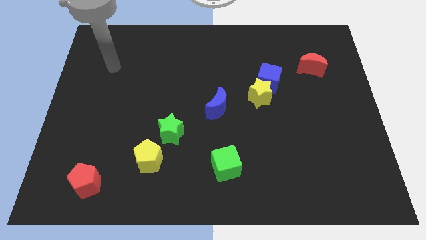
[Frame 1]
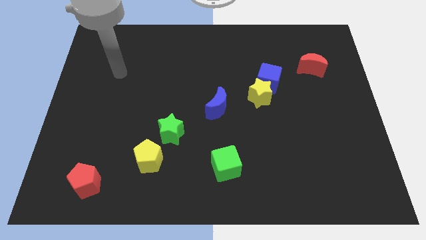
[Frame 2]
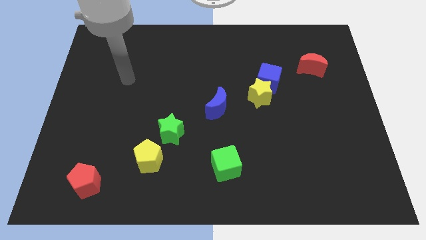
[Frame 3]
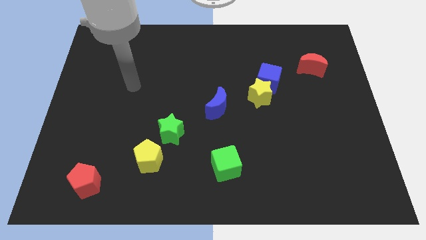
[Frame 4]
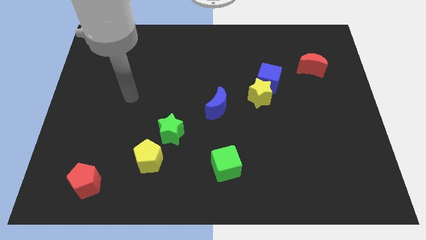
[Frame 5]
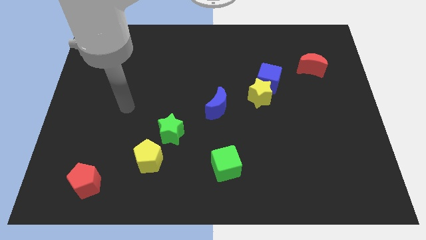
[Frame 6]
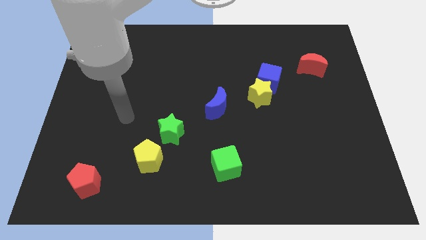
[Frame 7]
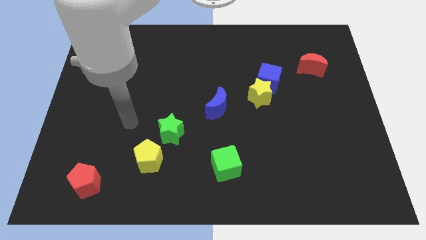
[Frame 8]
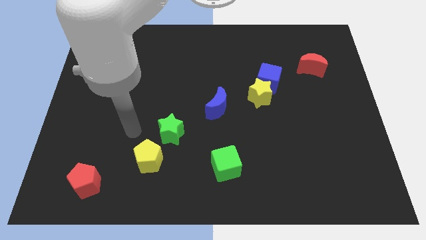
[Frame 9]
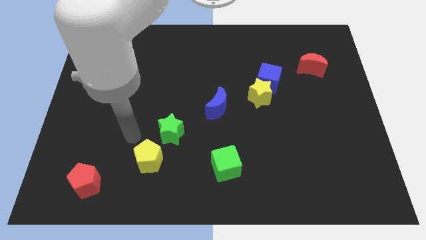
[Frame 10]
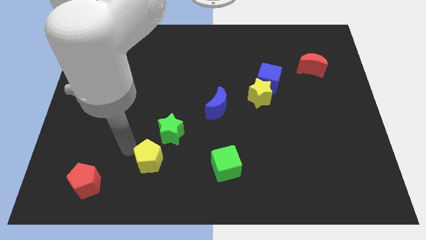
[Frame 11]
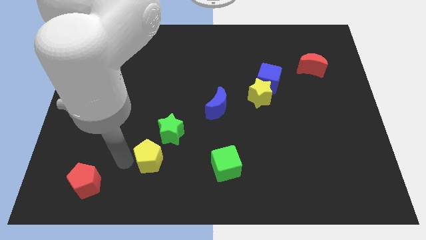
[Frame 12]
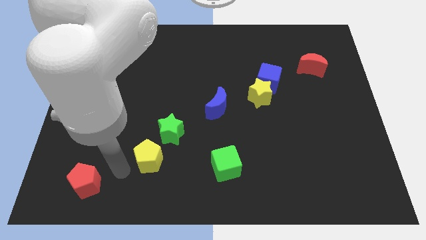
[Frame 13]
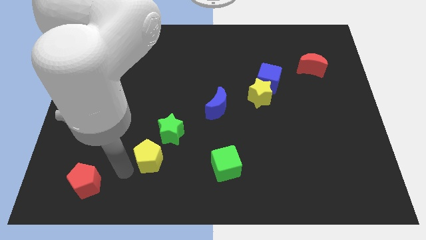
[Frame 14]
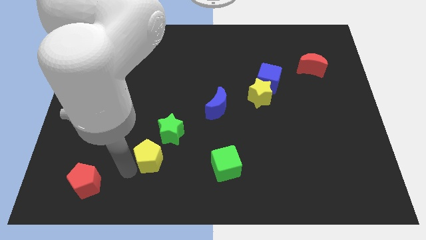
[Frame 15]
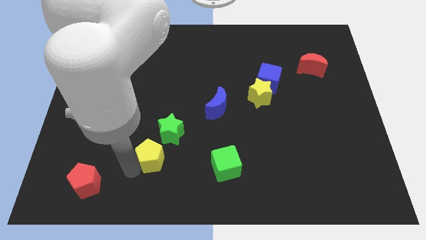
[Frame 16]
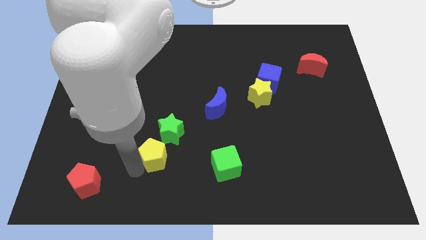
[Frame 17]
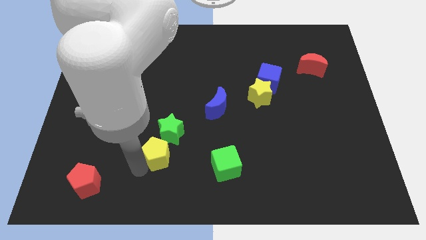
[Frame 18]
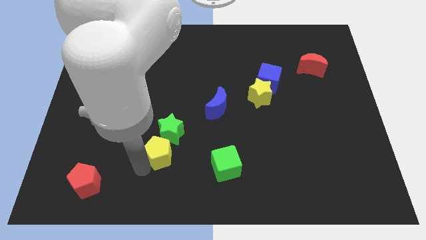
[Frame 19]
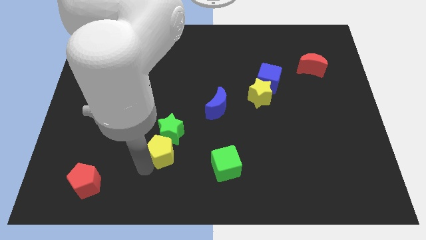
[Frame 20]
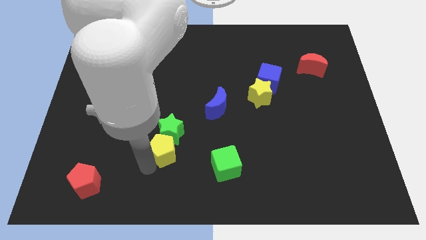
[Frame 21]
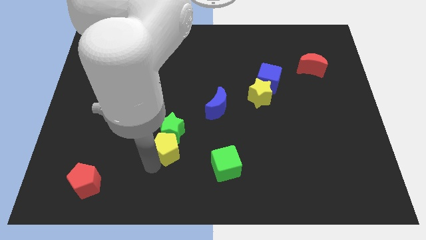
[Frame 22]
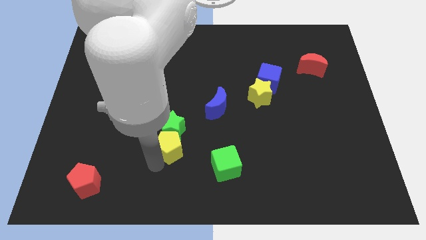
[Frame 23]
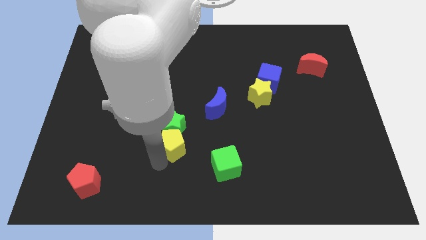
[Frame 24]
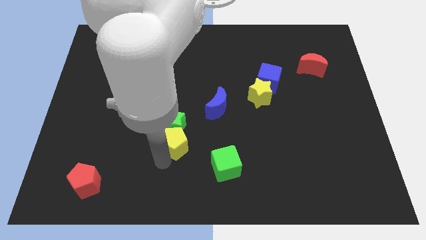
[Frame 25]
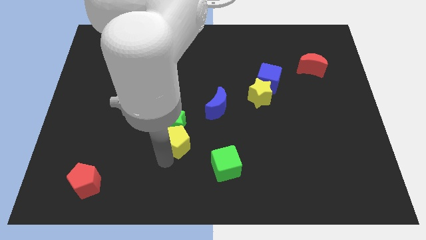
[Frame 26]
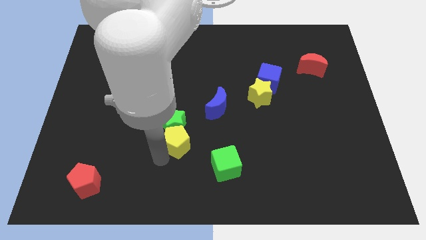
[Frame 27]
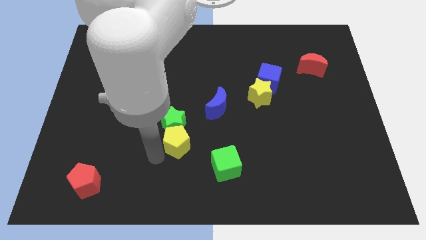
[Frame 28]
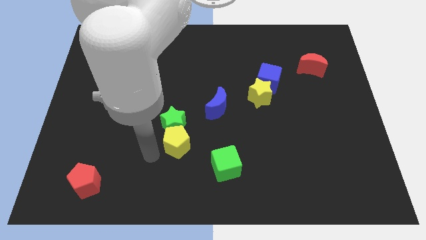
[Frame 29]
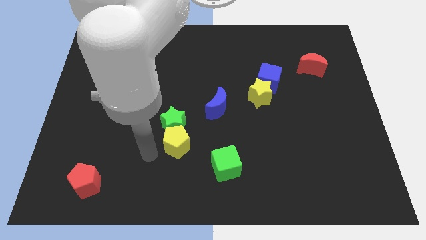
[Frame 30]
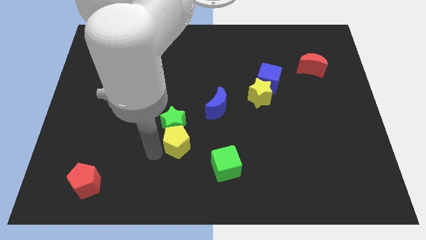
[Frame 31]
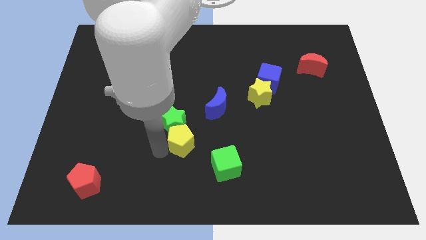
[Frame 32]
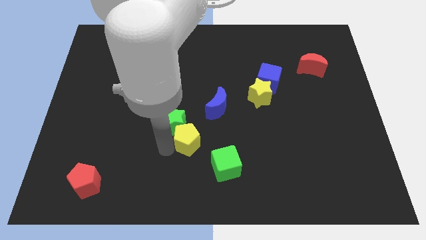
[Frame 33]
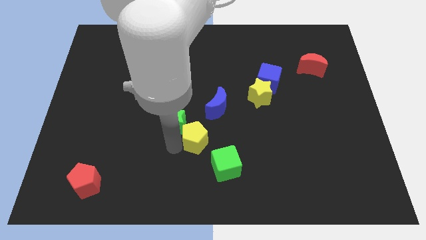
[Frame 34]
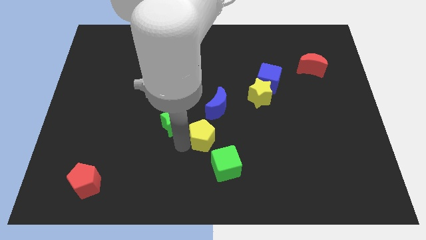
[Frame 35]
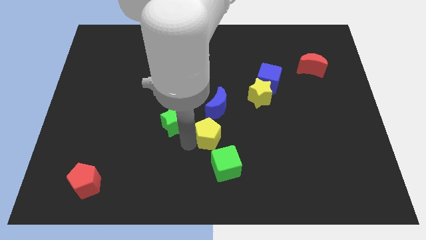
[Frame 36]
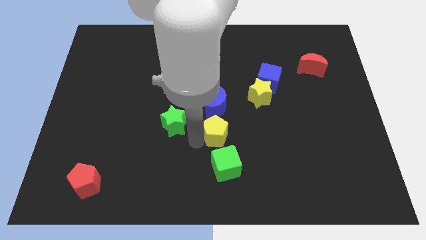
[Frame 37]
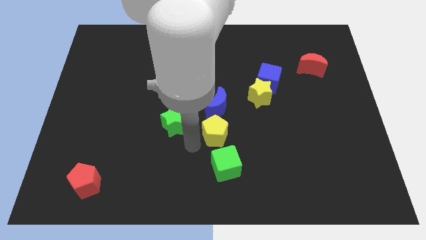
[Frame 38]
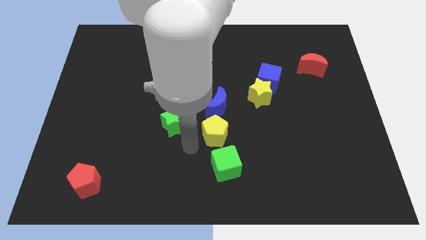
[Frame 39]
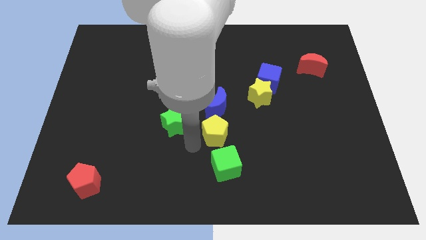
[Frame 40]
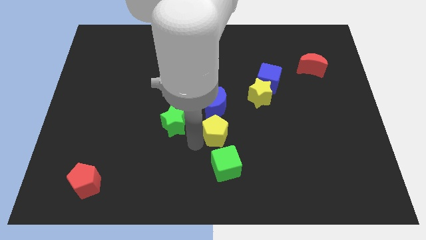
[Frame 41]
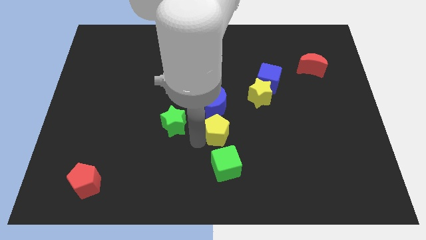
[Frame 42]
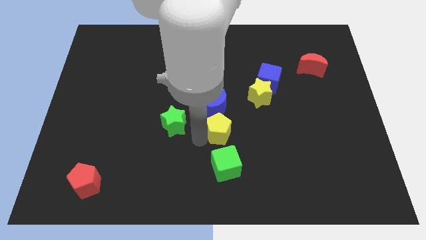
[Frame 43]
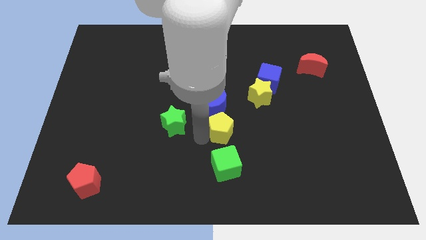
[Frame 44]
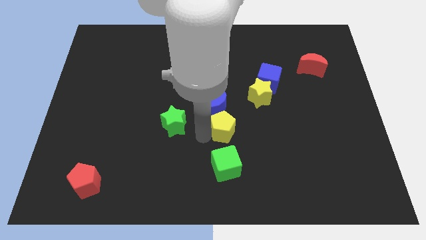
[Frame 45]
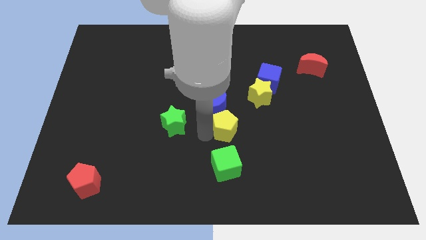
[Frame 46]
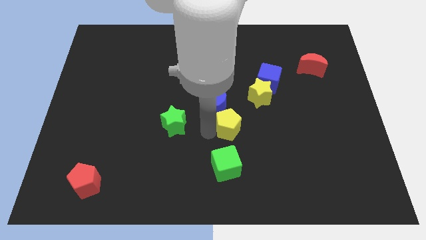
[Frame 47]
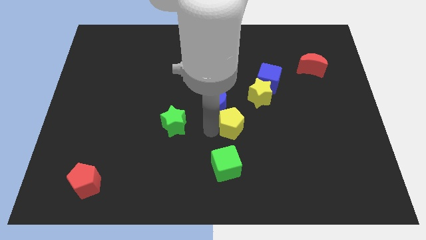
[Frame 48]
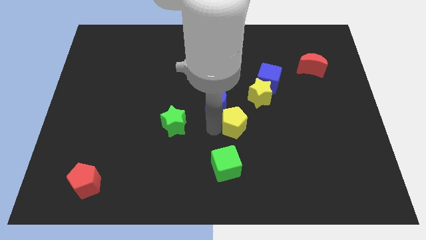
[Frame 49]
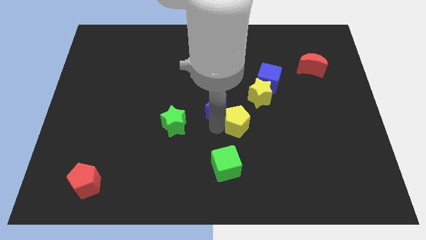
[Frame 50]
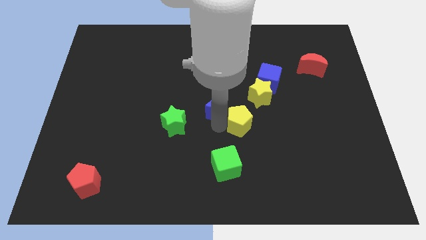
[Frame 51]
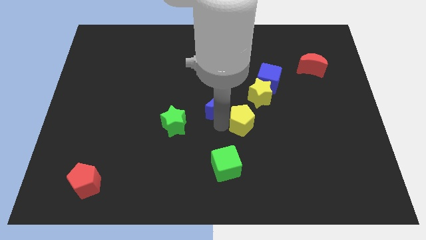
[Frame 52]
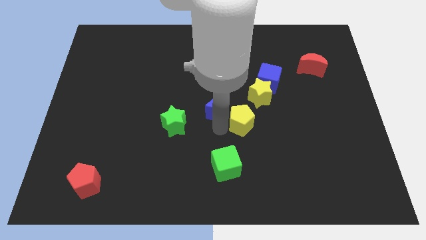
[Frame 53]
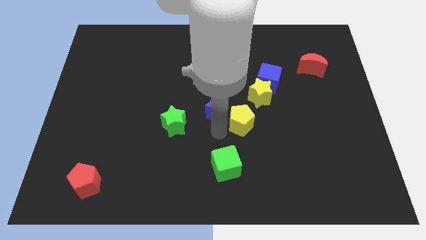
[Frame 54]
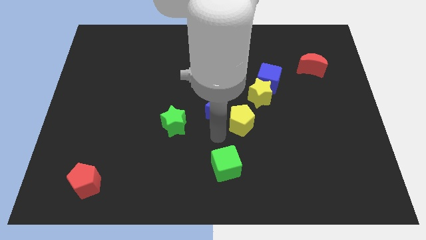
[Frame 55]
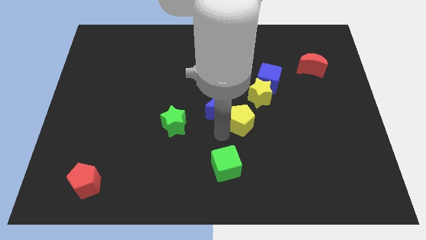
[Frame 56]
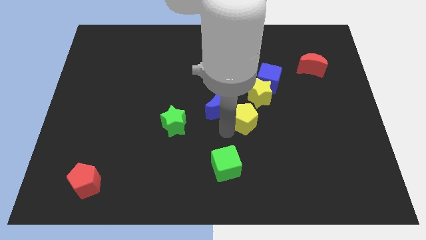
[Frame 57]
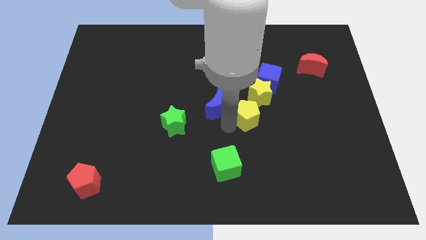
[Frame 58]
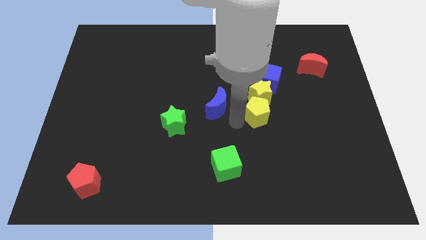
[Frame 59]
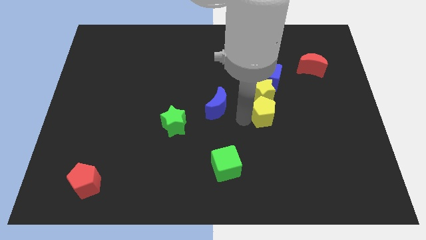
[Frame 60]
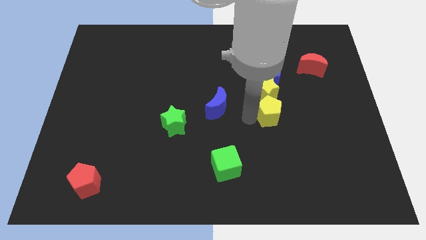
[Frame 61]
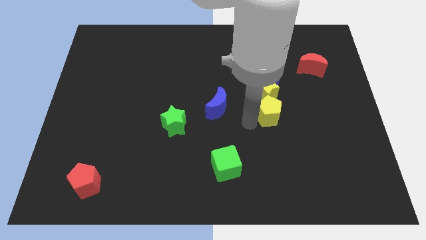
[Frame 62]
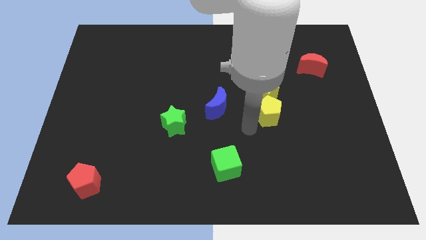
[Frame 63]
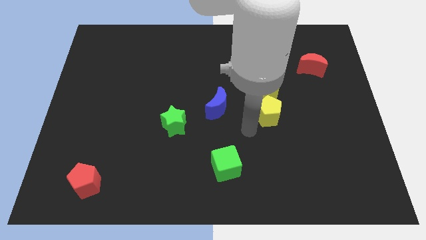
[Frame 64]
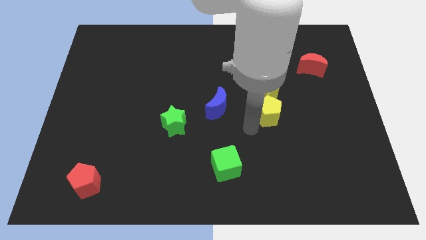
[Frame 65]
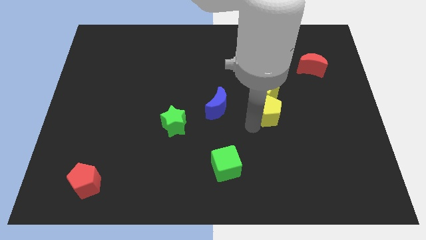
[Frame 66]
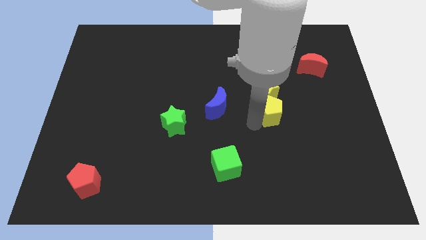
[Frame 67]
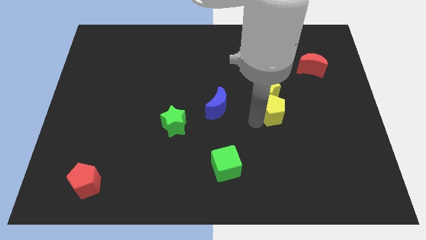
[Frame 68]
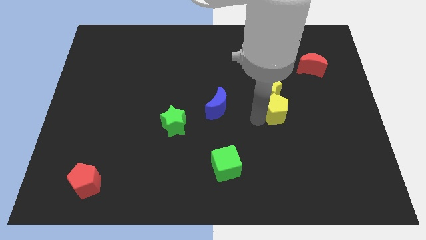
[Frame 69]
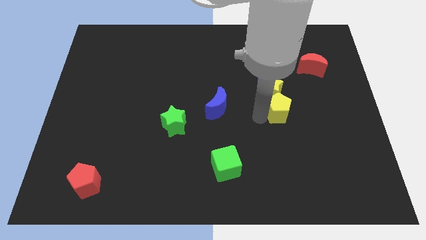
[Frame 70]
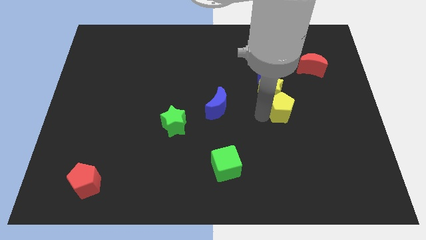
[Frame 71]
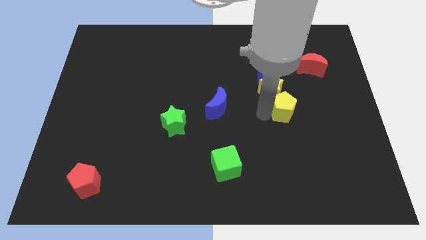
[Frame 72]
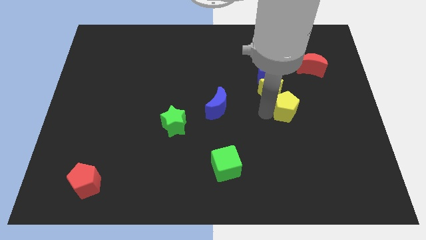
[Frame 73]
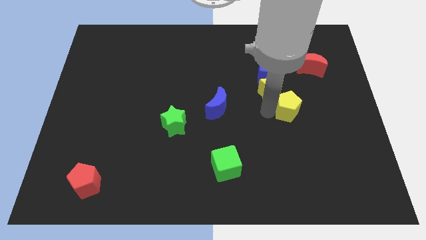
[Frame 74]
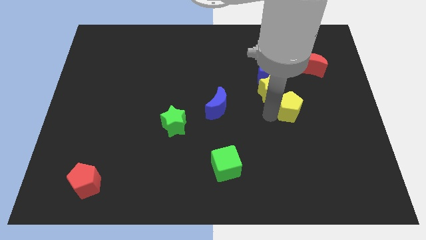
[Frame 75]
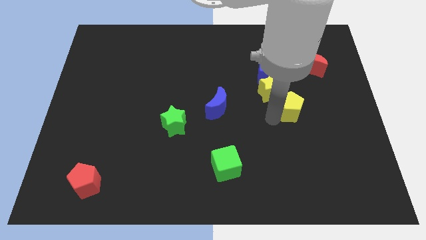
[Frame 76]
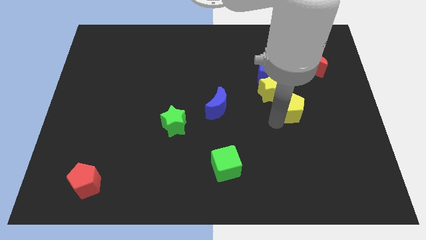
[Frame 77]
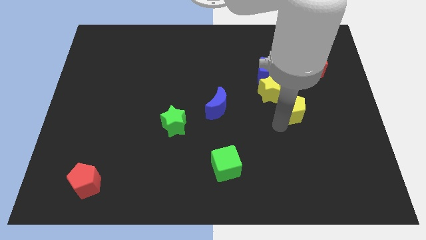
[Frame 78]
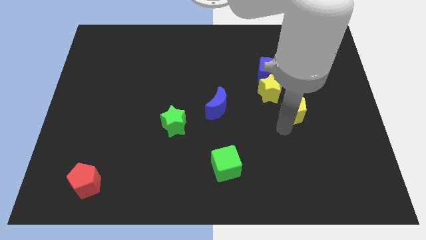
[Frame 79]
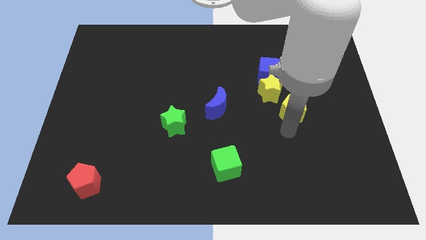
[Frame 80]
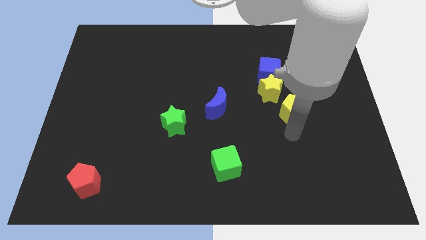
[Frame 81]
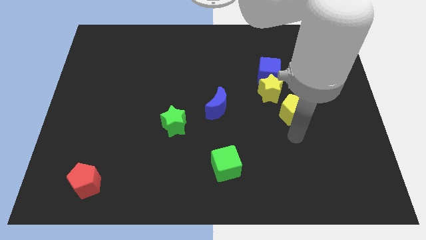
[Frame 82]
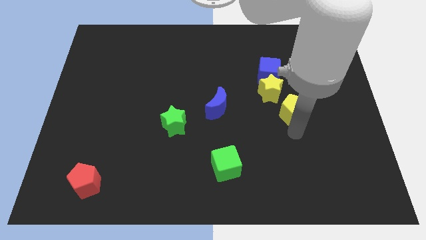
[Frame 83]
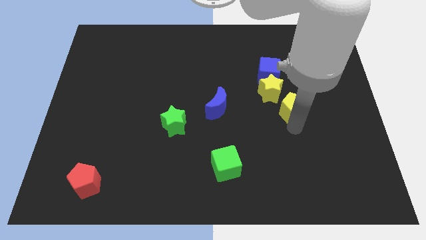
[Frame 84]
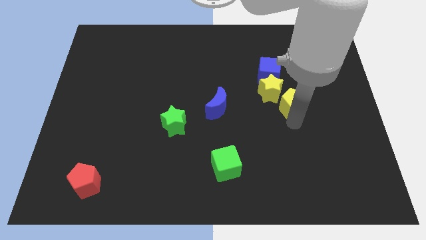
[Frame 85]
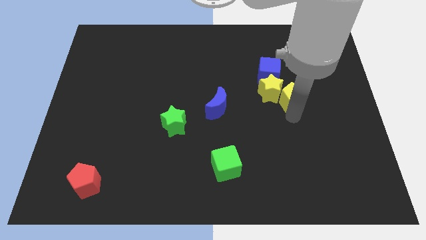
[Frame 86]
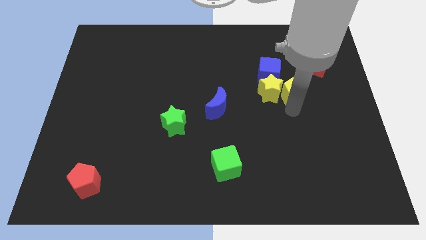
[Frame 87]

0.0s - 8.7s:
put the yellow pentagon to the bottom left of the red moon
